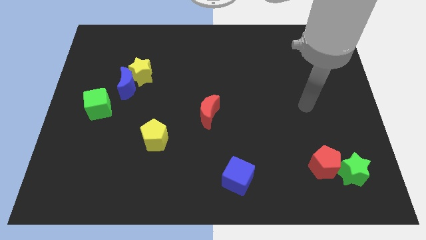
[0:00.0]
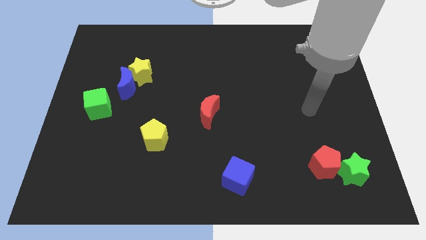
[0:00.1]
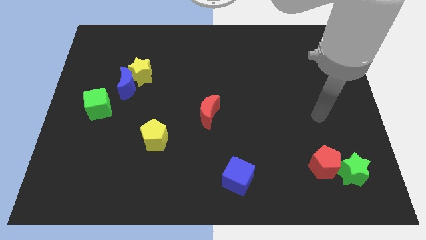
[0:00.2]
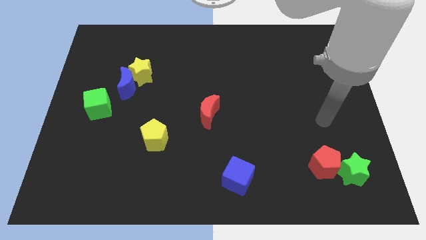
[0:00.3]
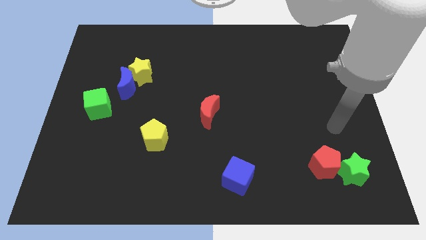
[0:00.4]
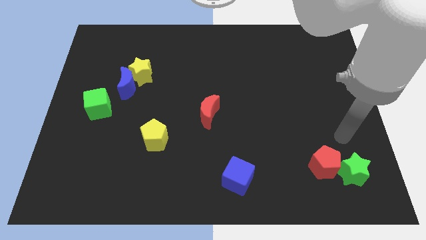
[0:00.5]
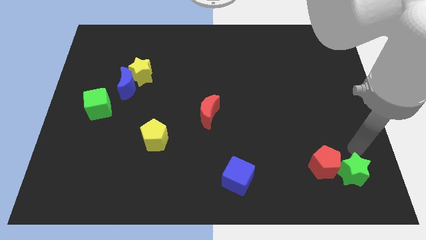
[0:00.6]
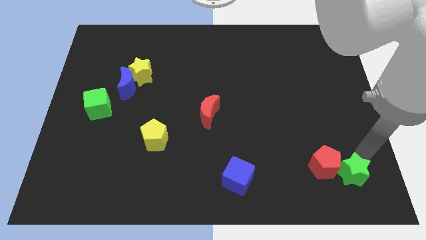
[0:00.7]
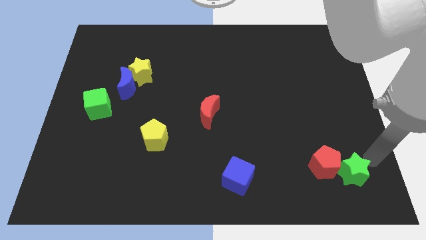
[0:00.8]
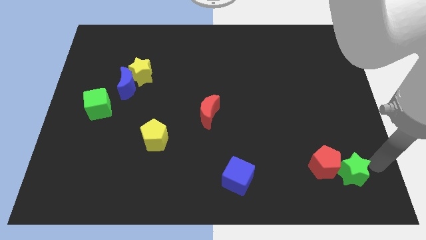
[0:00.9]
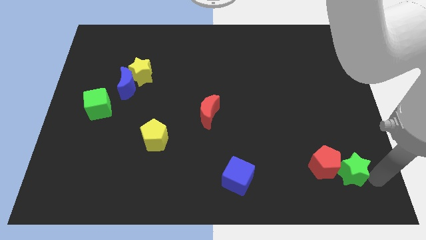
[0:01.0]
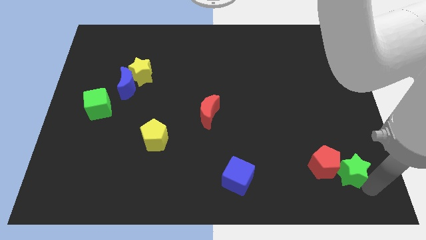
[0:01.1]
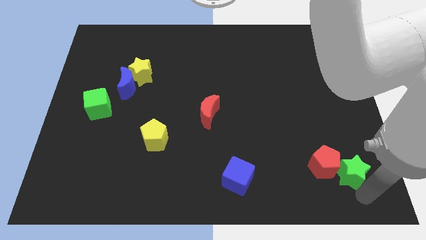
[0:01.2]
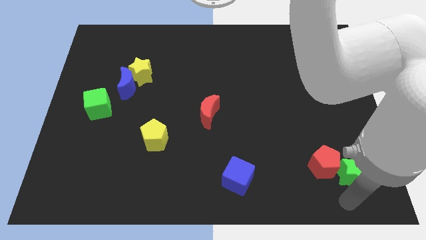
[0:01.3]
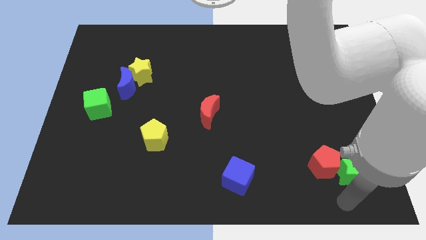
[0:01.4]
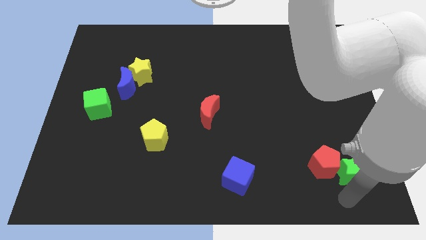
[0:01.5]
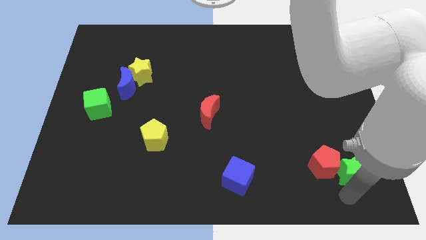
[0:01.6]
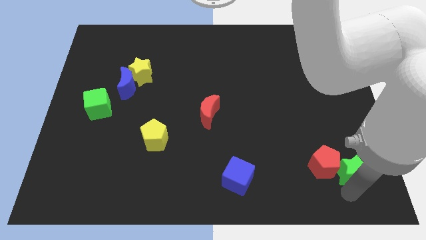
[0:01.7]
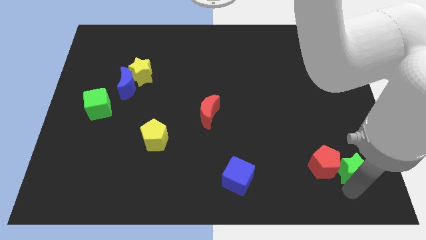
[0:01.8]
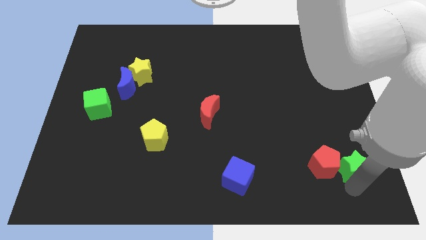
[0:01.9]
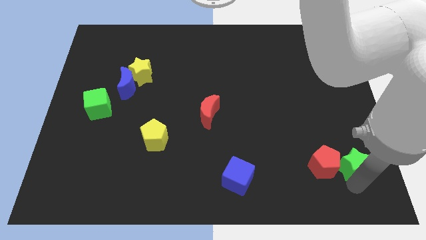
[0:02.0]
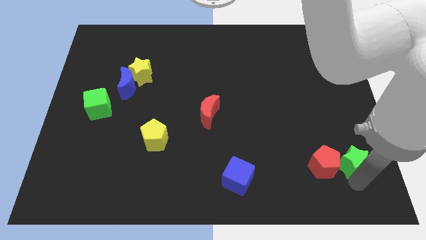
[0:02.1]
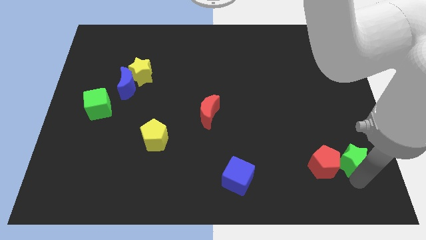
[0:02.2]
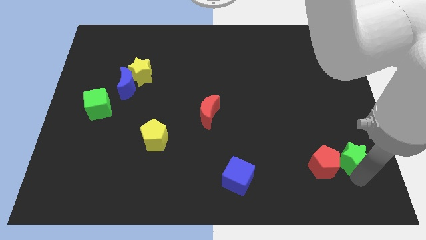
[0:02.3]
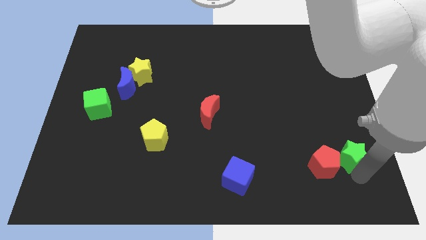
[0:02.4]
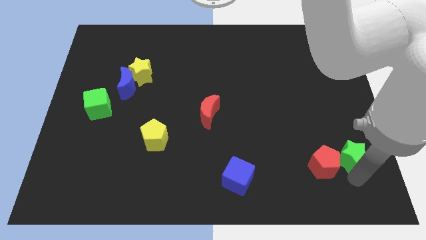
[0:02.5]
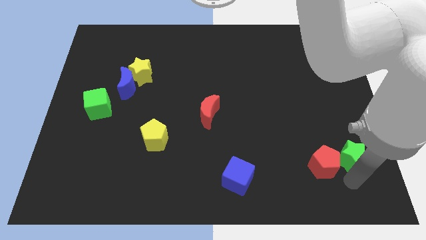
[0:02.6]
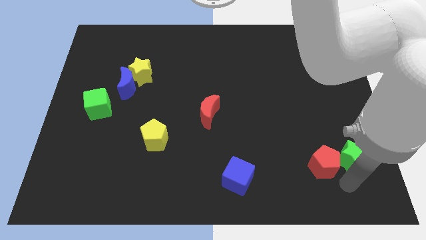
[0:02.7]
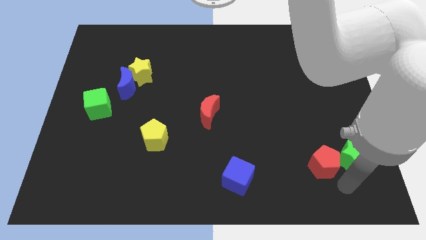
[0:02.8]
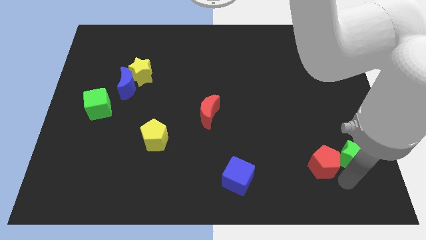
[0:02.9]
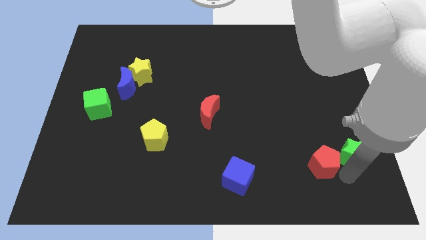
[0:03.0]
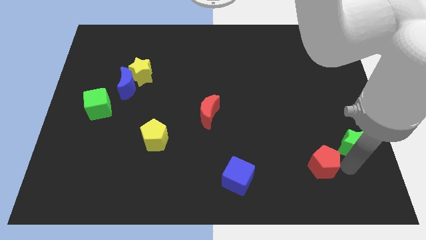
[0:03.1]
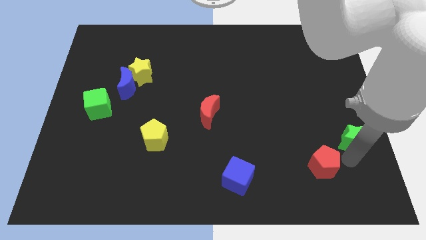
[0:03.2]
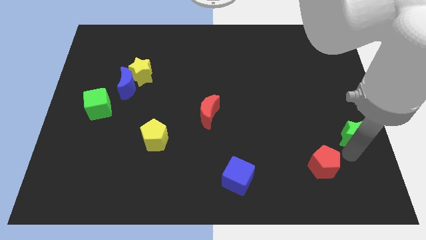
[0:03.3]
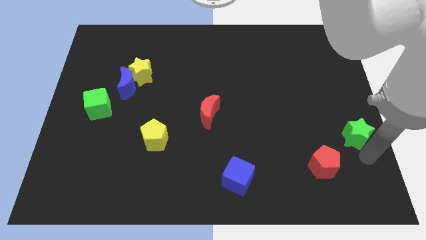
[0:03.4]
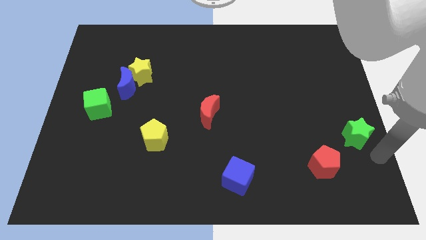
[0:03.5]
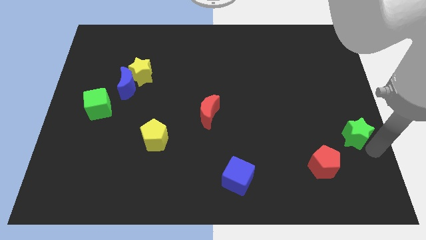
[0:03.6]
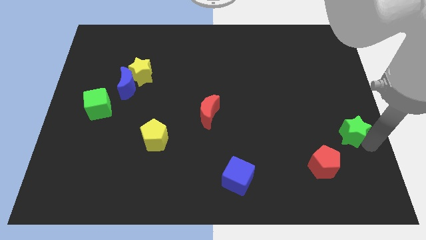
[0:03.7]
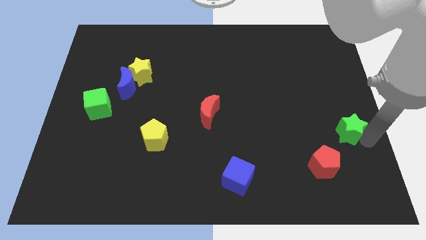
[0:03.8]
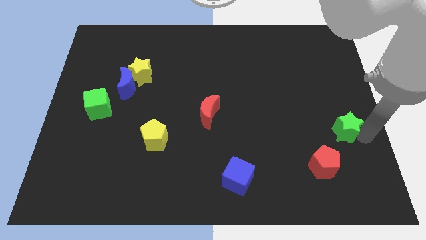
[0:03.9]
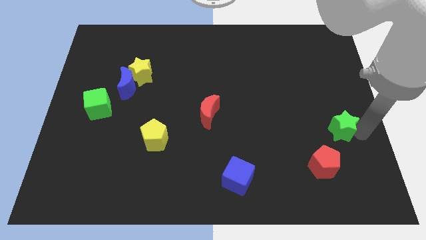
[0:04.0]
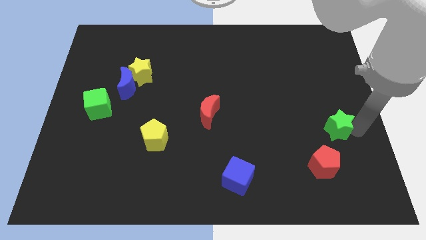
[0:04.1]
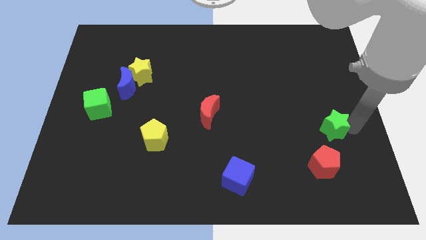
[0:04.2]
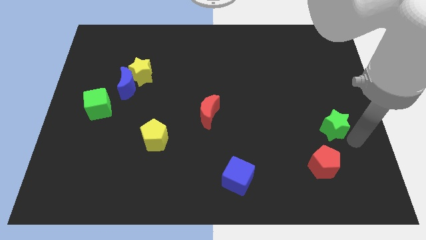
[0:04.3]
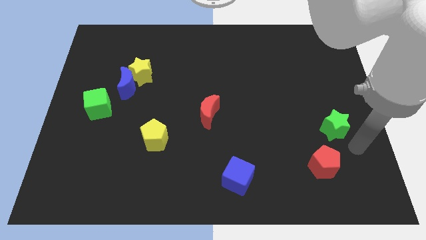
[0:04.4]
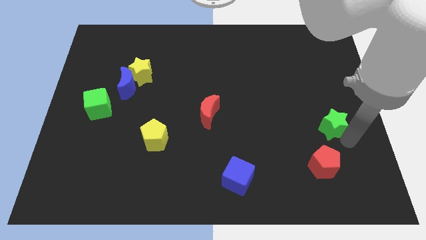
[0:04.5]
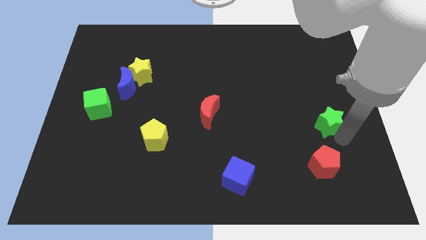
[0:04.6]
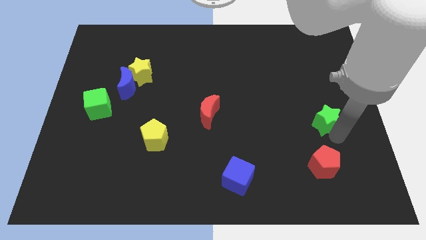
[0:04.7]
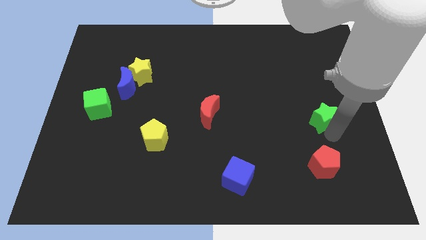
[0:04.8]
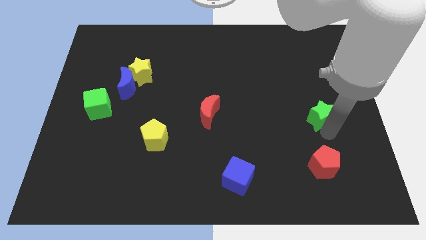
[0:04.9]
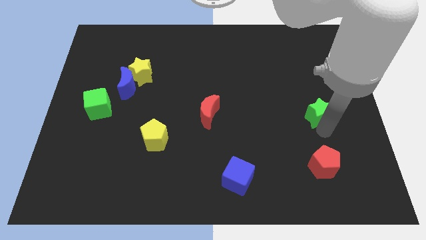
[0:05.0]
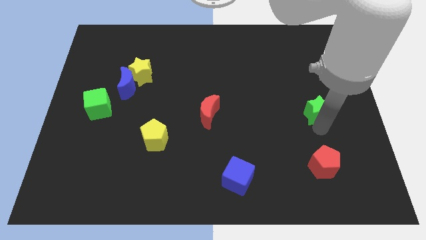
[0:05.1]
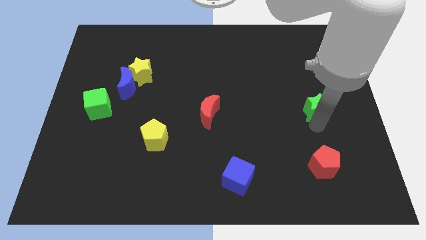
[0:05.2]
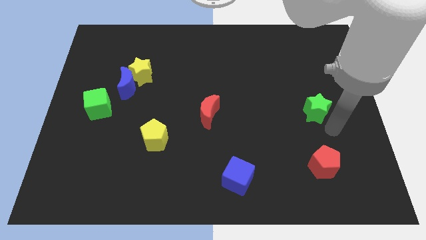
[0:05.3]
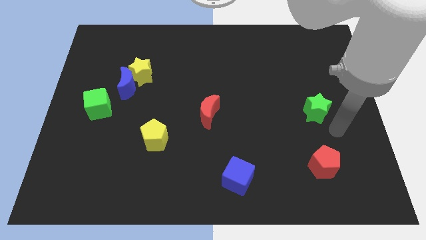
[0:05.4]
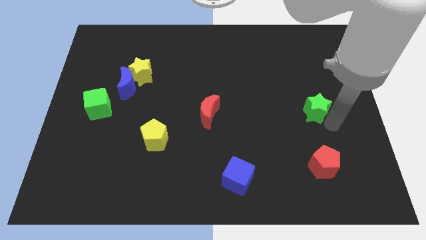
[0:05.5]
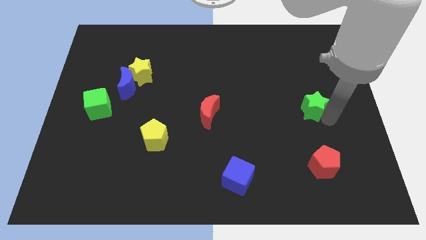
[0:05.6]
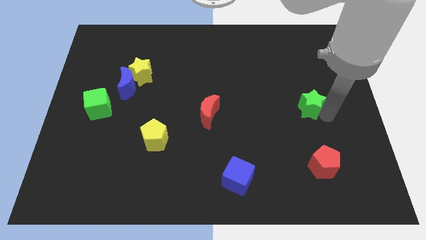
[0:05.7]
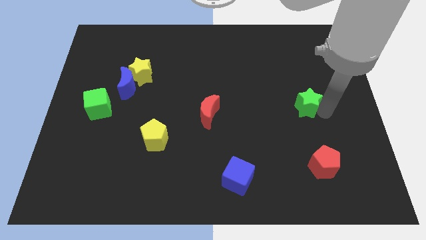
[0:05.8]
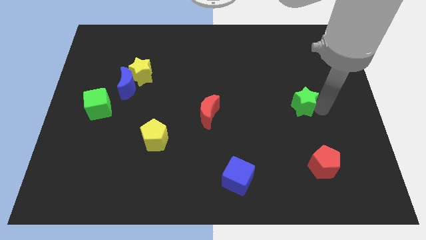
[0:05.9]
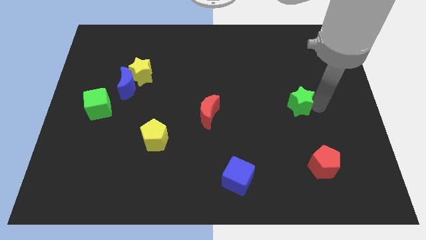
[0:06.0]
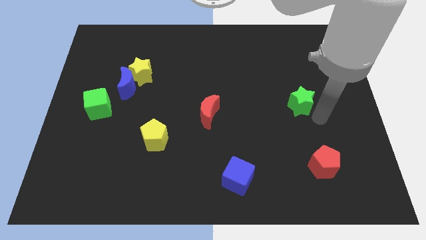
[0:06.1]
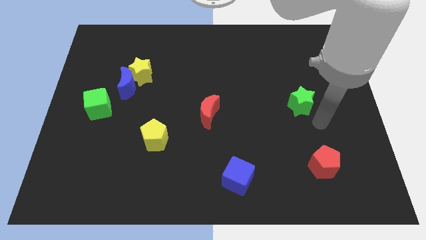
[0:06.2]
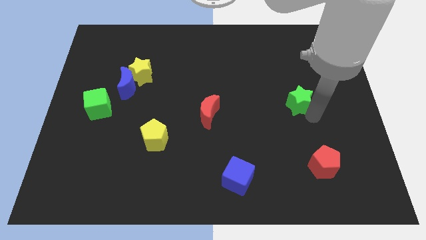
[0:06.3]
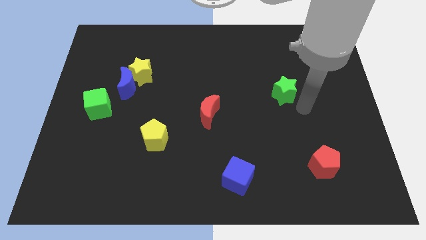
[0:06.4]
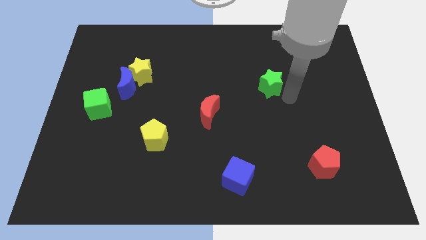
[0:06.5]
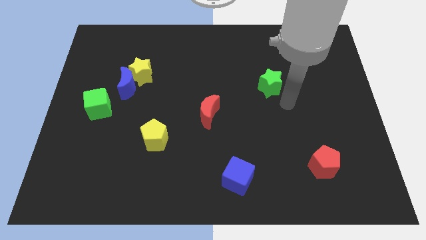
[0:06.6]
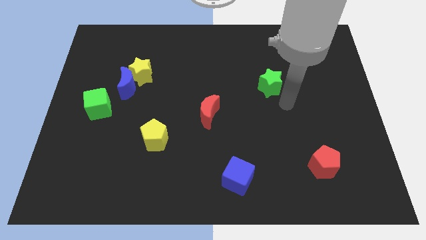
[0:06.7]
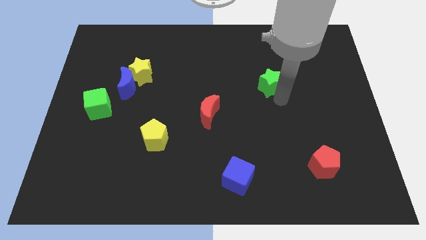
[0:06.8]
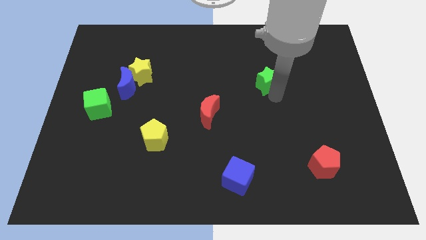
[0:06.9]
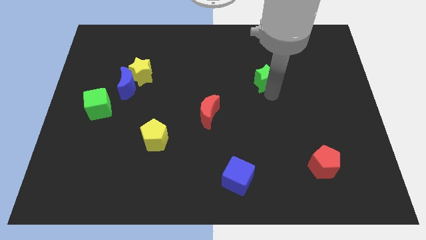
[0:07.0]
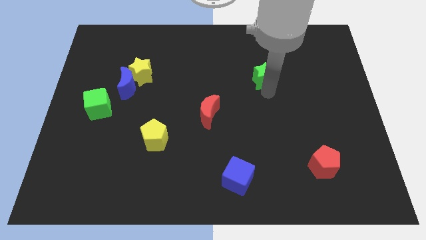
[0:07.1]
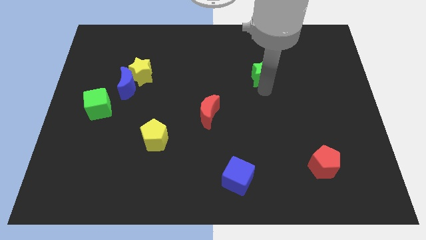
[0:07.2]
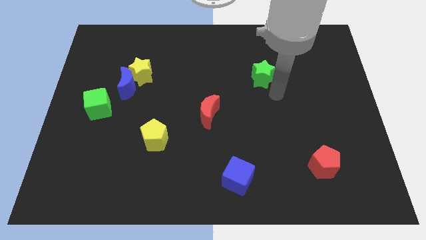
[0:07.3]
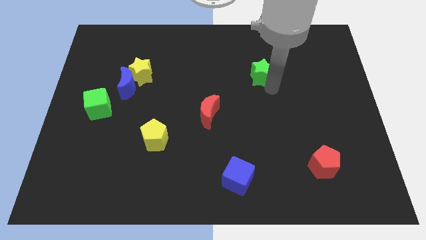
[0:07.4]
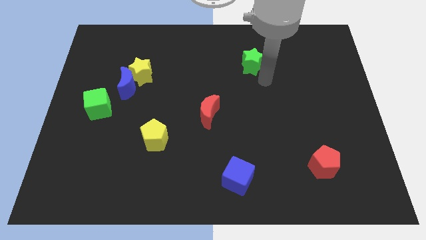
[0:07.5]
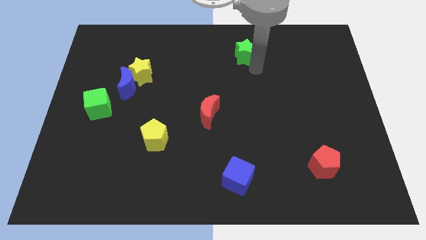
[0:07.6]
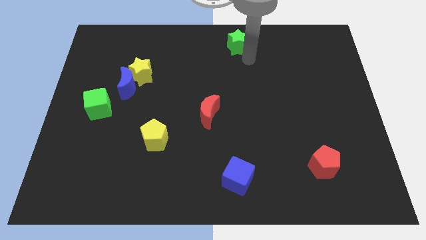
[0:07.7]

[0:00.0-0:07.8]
put the green star to the top side
